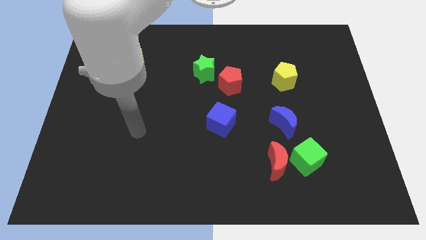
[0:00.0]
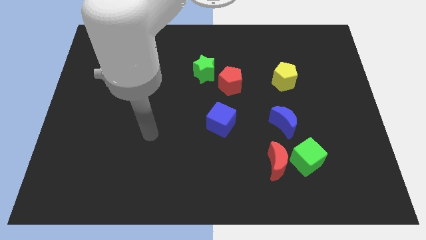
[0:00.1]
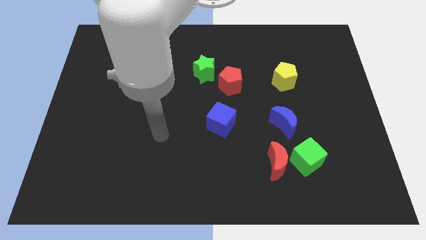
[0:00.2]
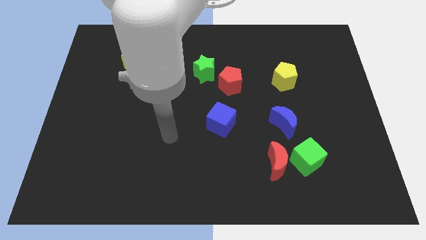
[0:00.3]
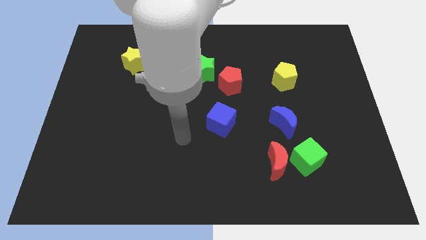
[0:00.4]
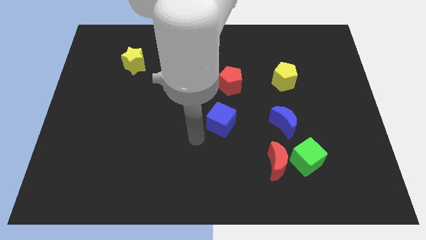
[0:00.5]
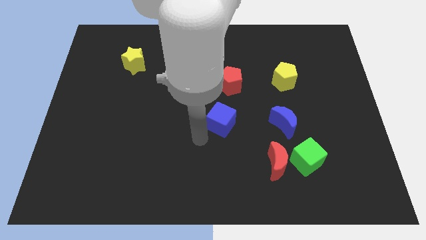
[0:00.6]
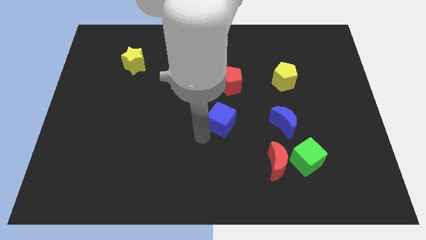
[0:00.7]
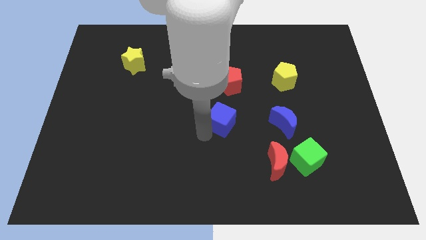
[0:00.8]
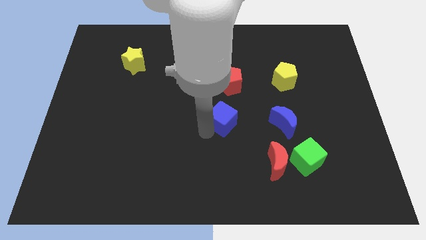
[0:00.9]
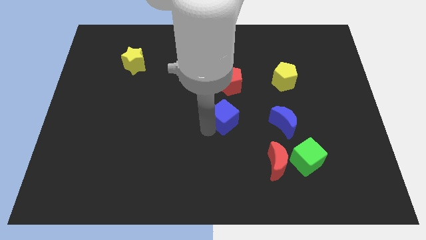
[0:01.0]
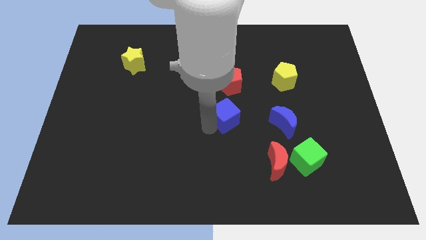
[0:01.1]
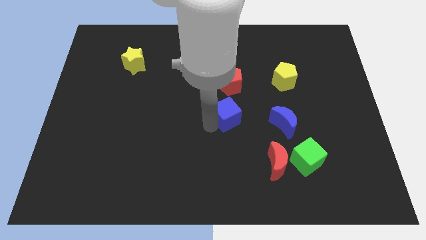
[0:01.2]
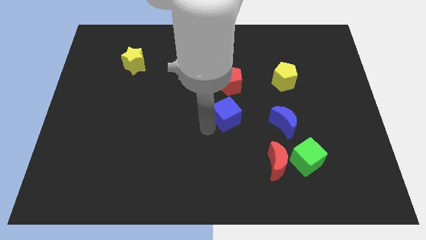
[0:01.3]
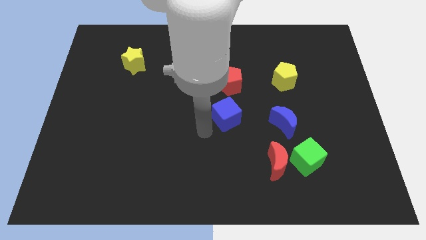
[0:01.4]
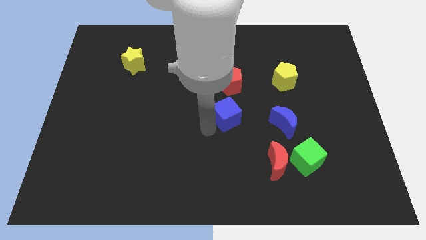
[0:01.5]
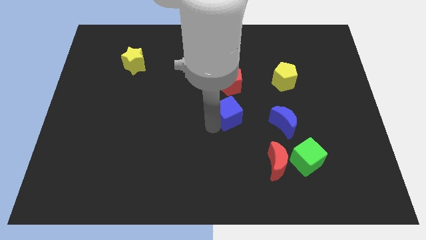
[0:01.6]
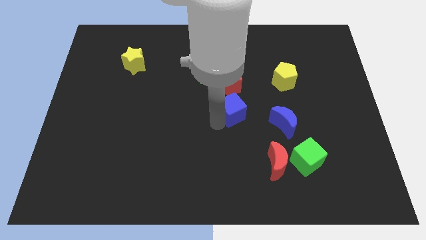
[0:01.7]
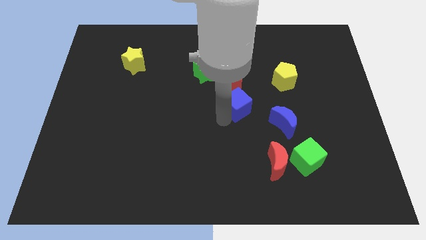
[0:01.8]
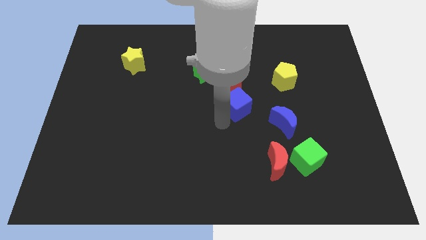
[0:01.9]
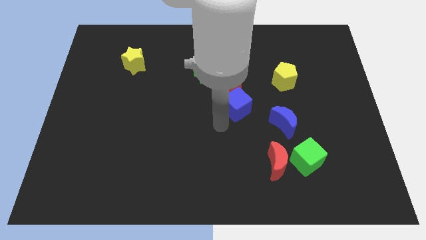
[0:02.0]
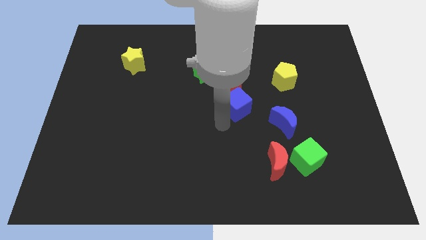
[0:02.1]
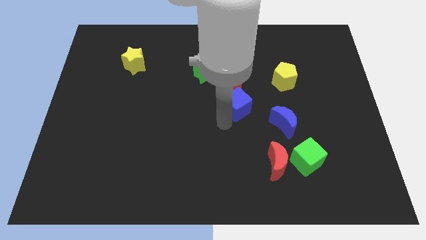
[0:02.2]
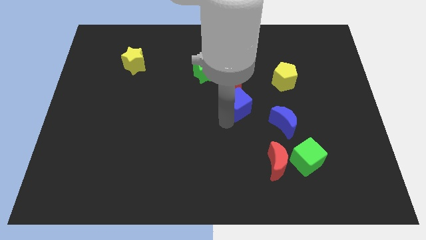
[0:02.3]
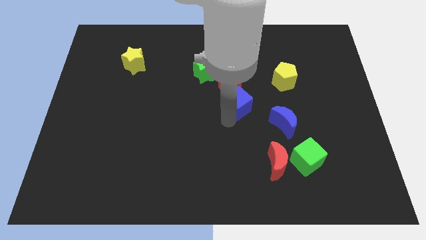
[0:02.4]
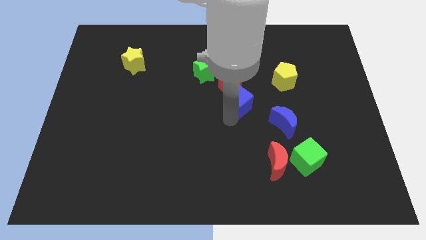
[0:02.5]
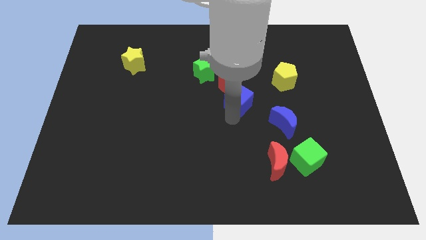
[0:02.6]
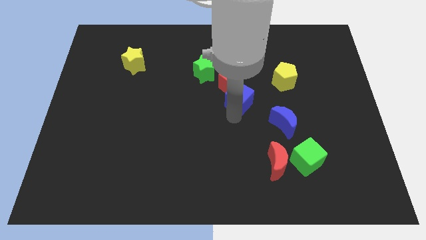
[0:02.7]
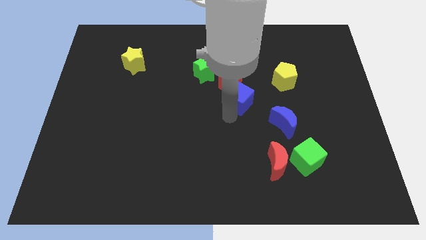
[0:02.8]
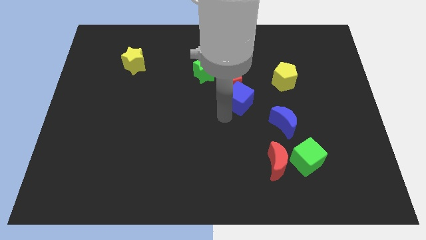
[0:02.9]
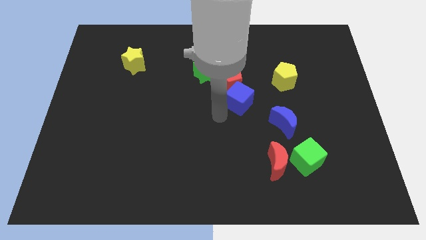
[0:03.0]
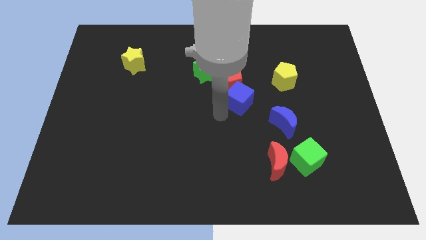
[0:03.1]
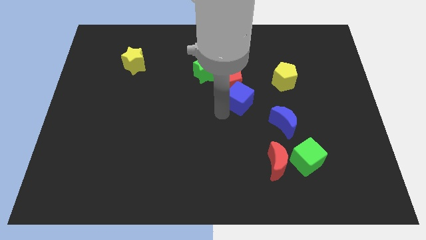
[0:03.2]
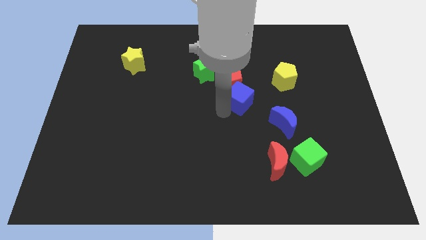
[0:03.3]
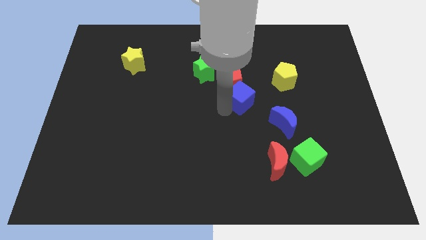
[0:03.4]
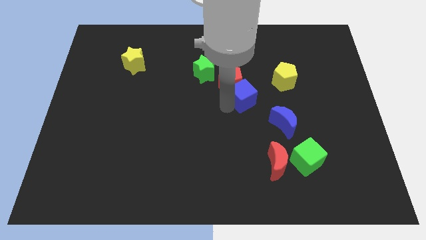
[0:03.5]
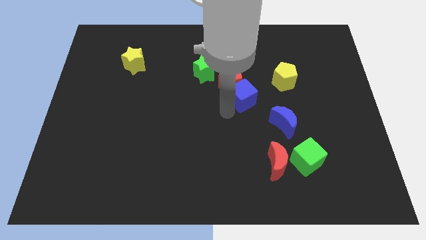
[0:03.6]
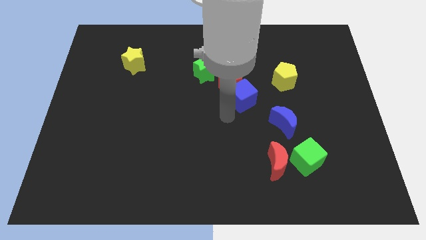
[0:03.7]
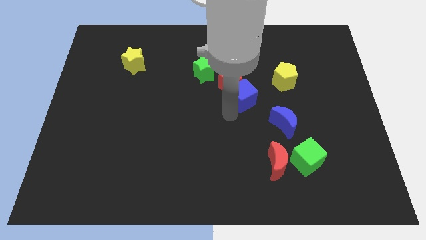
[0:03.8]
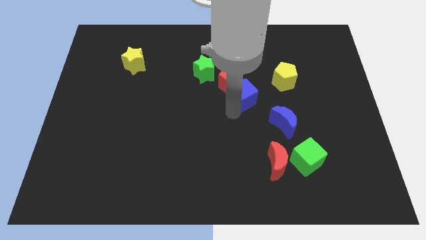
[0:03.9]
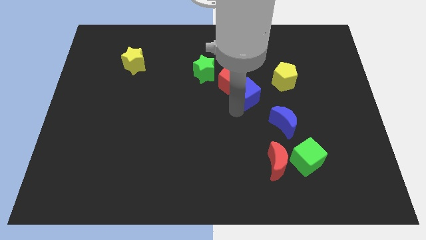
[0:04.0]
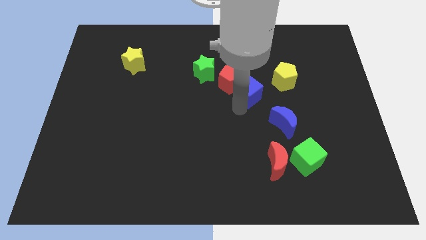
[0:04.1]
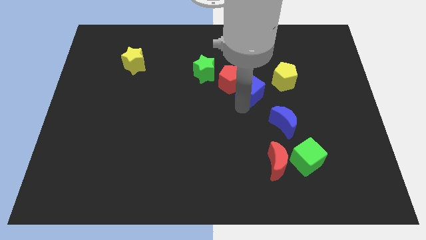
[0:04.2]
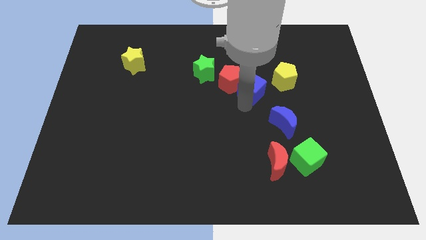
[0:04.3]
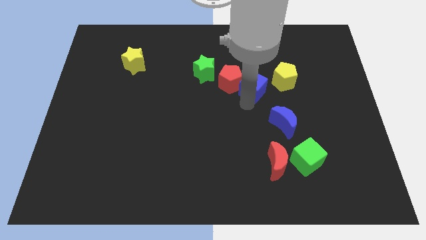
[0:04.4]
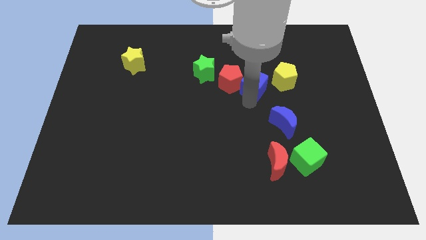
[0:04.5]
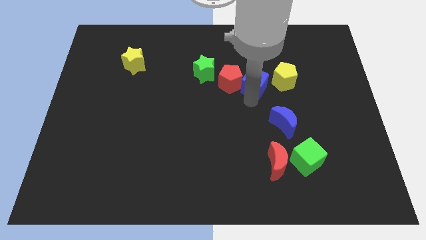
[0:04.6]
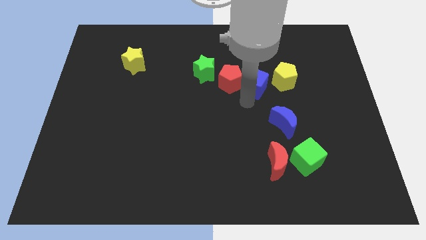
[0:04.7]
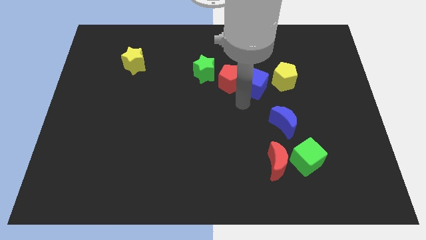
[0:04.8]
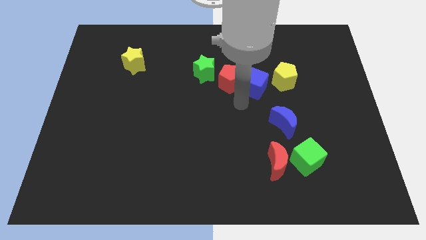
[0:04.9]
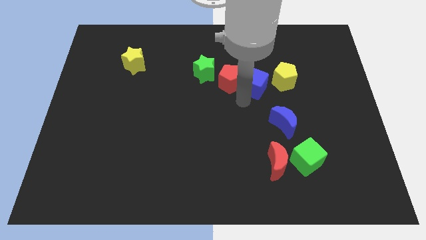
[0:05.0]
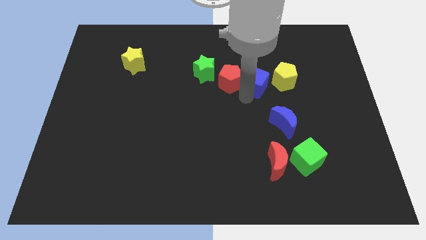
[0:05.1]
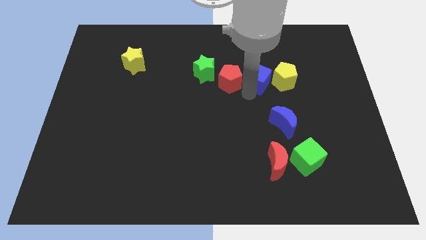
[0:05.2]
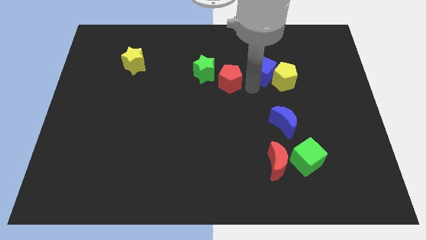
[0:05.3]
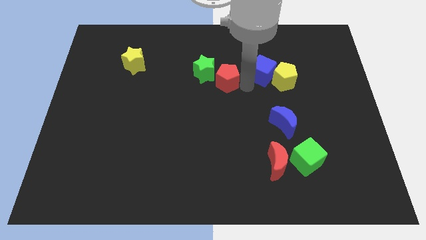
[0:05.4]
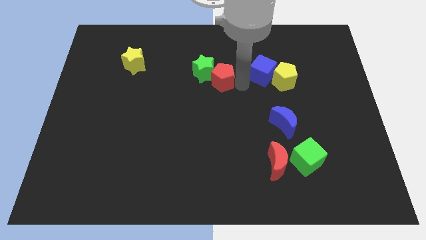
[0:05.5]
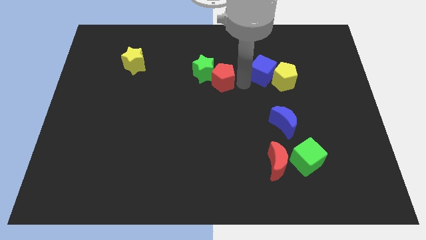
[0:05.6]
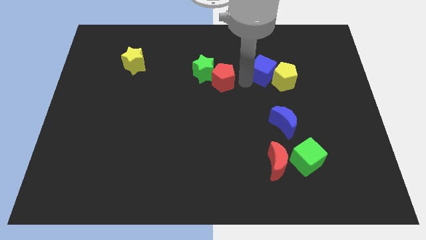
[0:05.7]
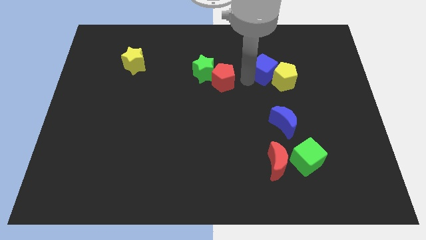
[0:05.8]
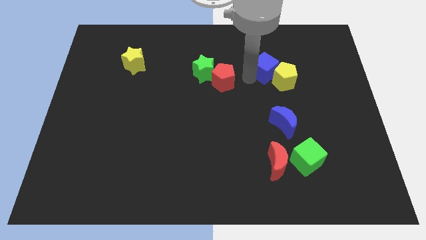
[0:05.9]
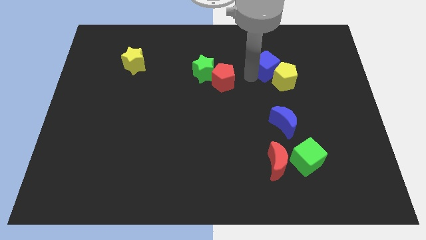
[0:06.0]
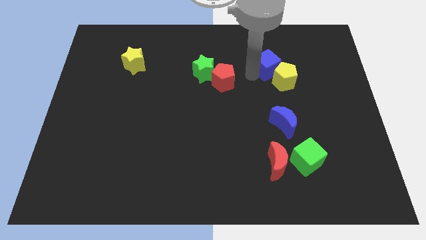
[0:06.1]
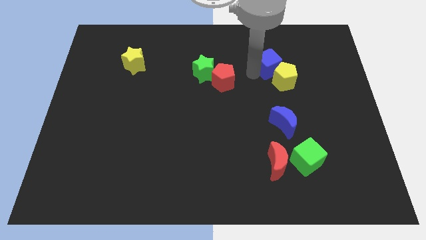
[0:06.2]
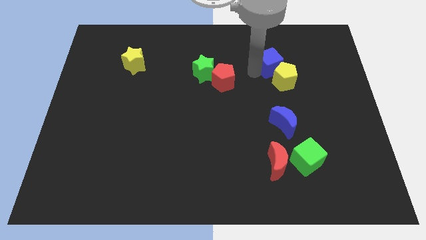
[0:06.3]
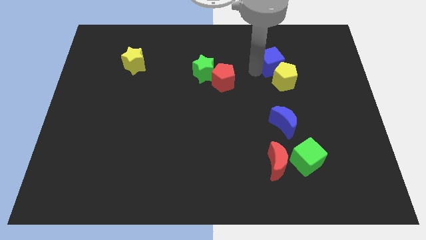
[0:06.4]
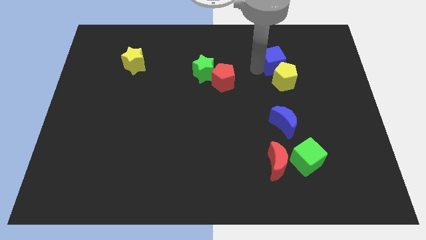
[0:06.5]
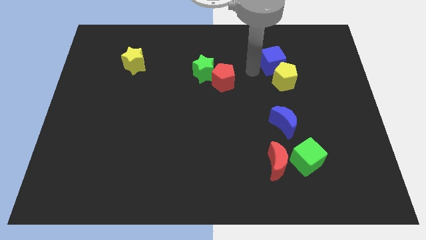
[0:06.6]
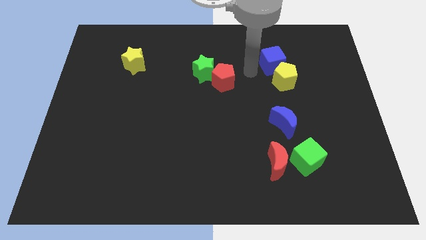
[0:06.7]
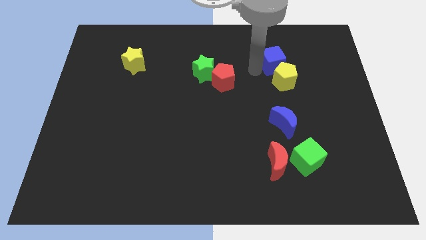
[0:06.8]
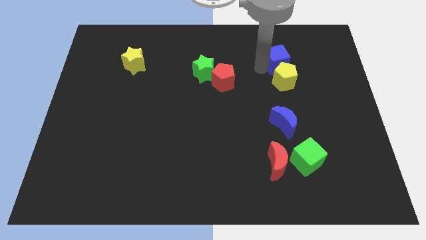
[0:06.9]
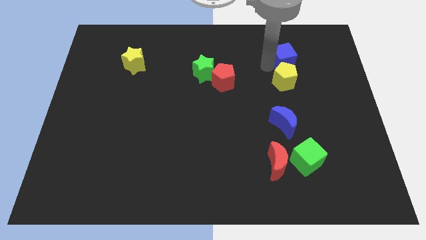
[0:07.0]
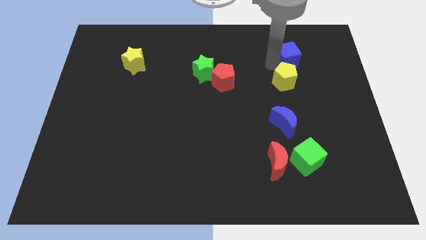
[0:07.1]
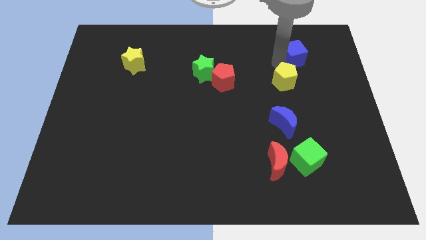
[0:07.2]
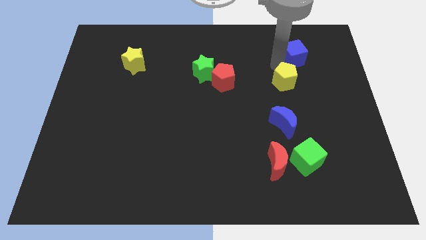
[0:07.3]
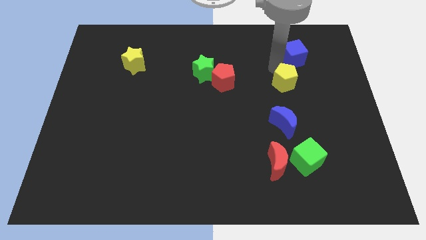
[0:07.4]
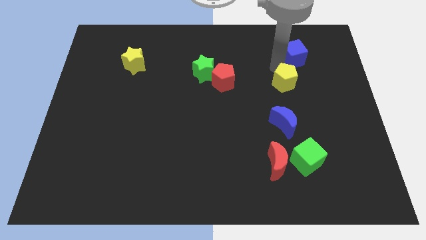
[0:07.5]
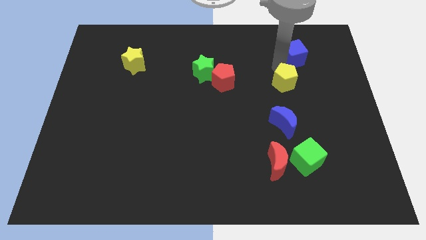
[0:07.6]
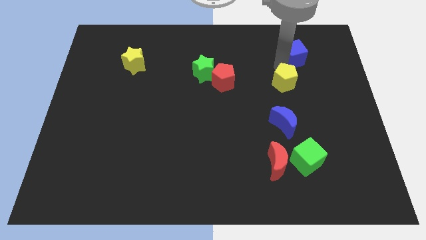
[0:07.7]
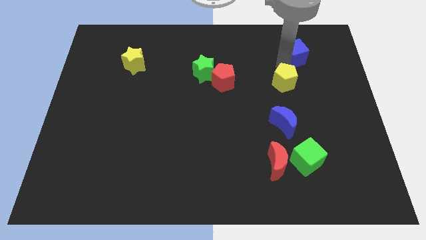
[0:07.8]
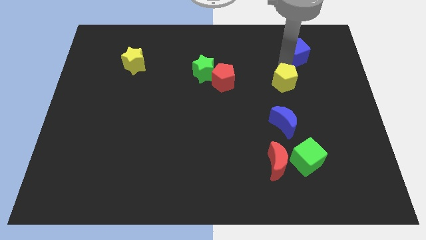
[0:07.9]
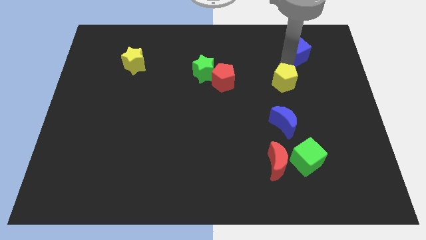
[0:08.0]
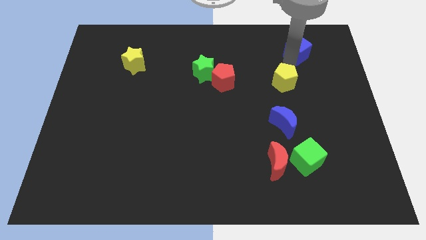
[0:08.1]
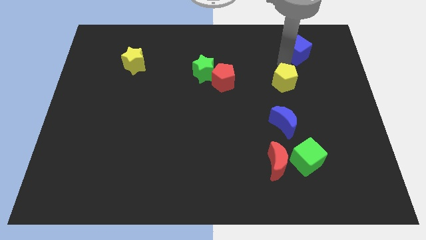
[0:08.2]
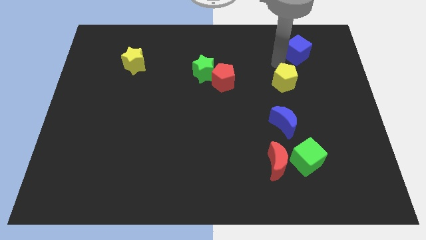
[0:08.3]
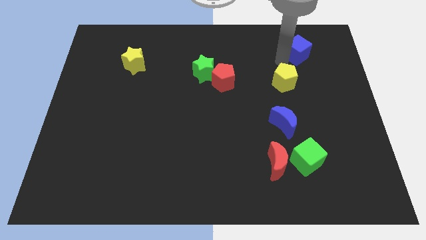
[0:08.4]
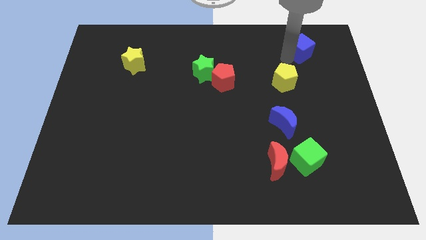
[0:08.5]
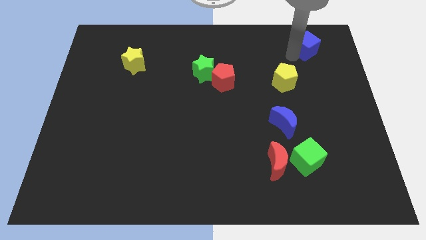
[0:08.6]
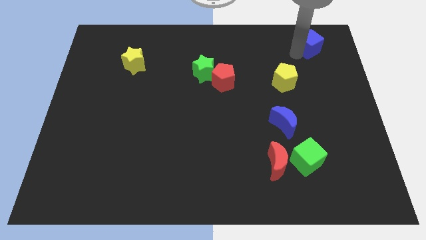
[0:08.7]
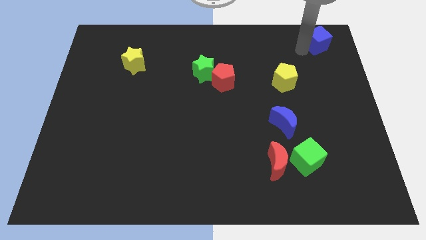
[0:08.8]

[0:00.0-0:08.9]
push the blue cube to the top right corner
